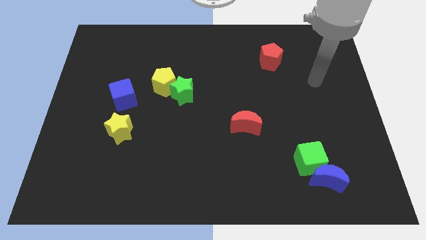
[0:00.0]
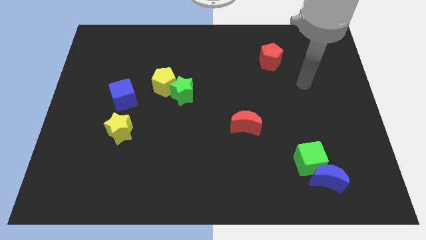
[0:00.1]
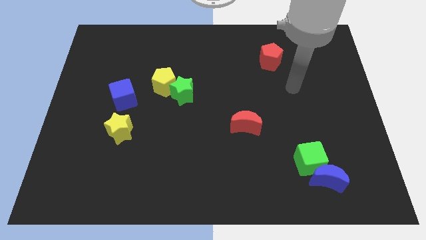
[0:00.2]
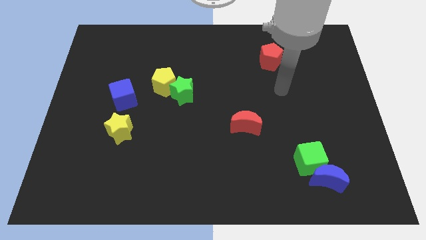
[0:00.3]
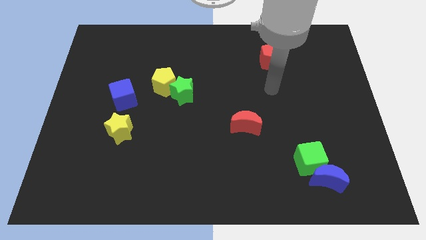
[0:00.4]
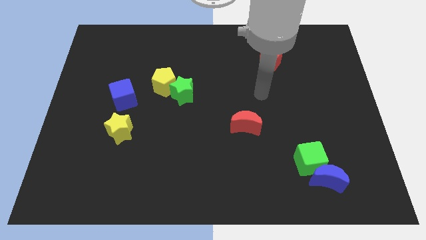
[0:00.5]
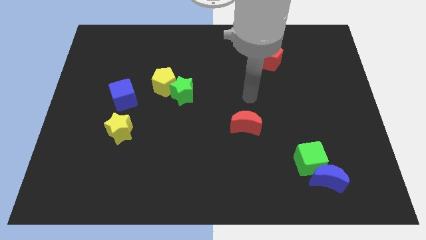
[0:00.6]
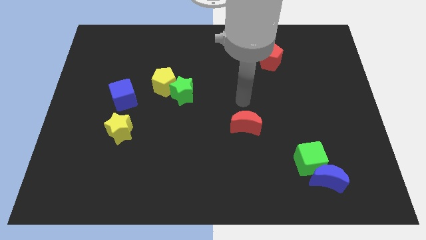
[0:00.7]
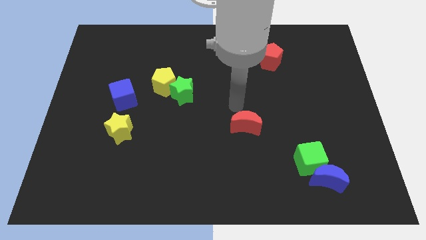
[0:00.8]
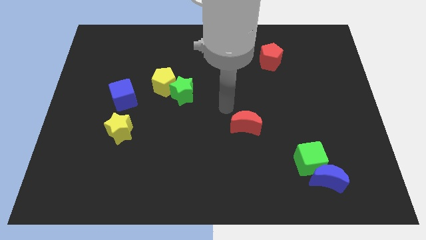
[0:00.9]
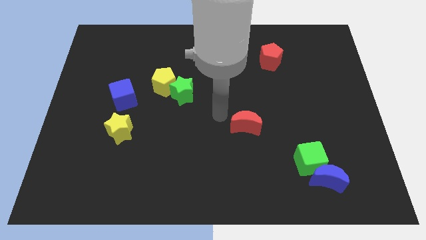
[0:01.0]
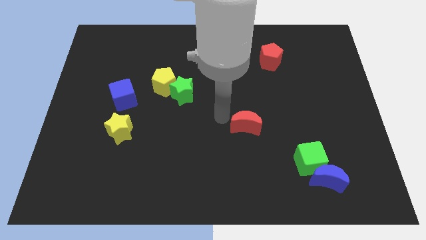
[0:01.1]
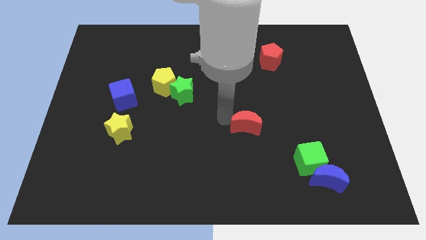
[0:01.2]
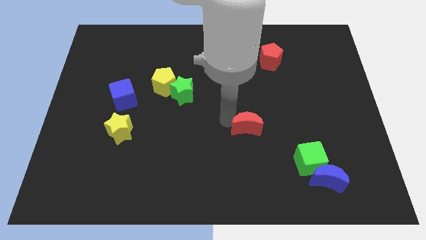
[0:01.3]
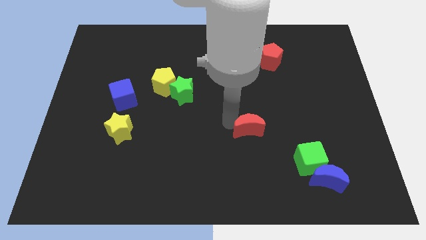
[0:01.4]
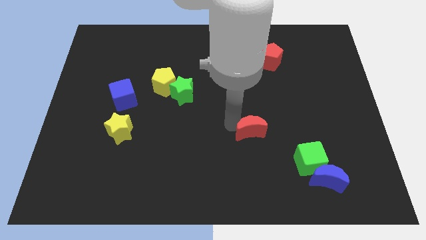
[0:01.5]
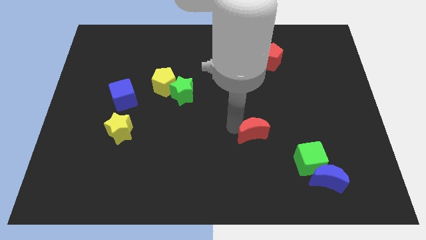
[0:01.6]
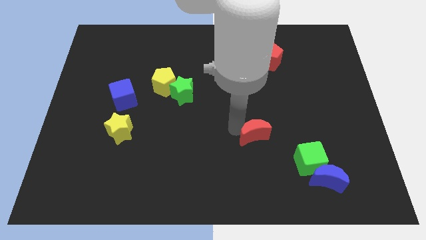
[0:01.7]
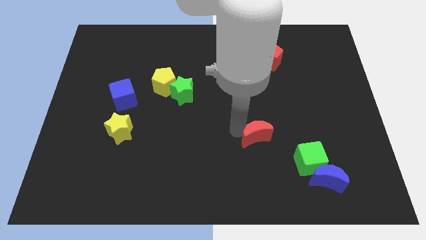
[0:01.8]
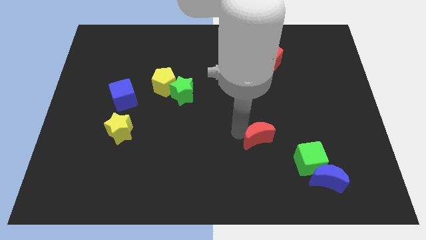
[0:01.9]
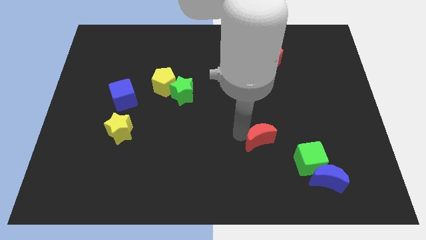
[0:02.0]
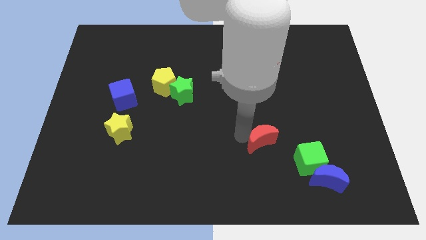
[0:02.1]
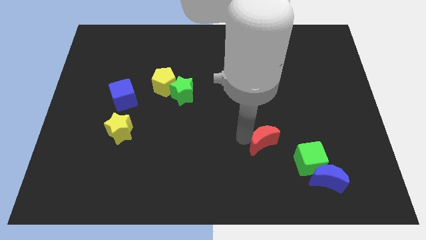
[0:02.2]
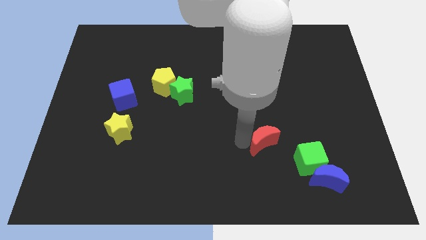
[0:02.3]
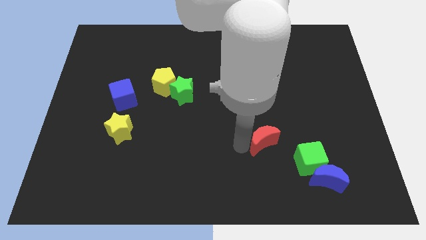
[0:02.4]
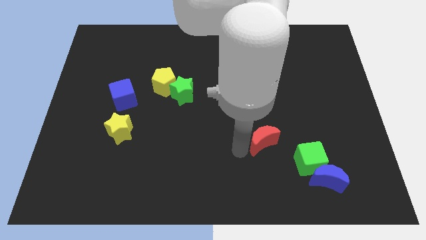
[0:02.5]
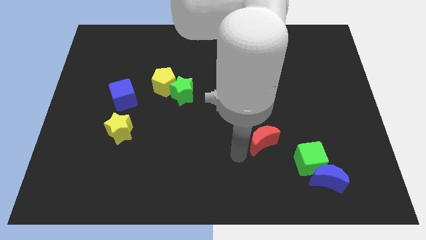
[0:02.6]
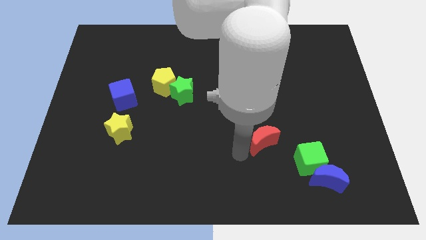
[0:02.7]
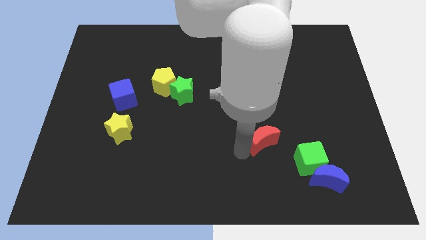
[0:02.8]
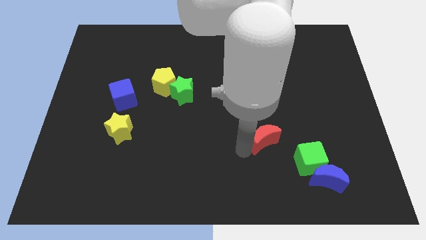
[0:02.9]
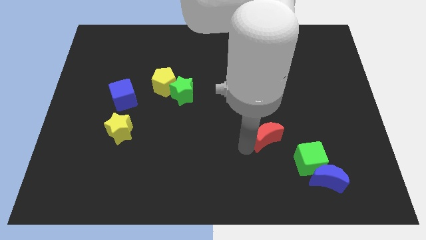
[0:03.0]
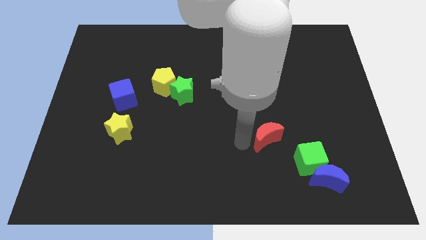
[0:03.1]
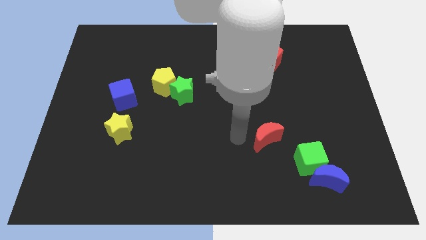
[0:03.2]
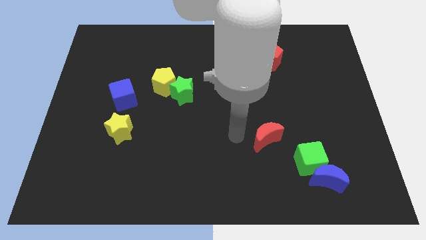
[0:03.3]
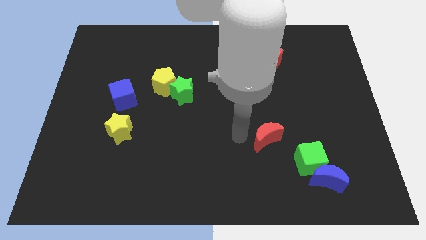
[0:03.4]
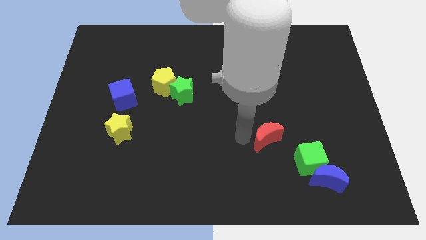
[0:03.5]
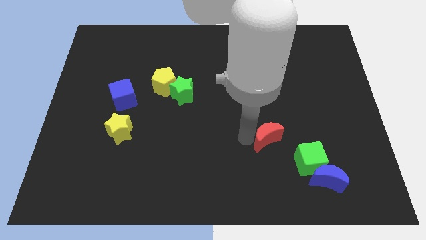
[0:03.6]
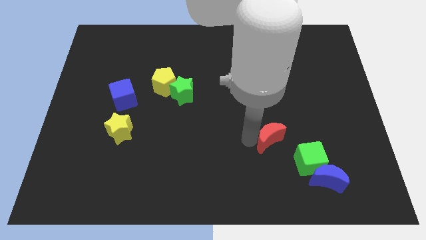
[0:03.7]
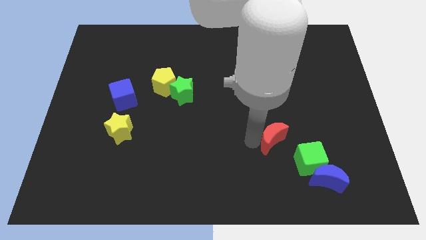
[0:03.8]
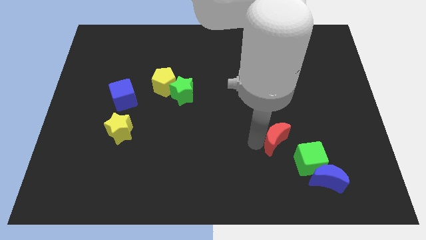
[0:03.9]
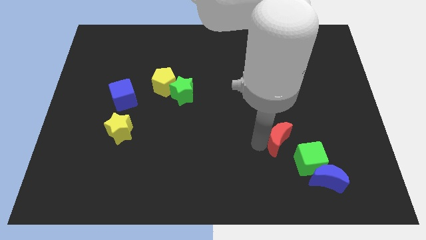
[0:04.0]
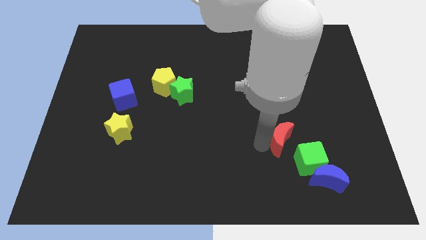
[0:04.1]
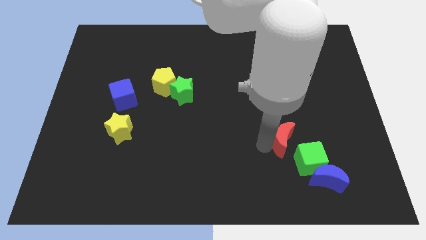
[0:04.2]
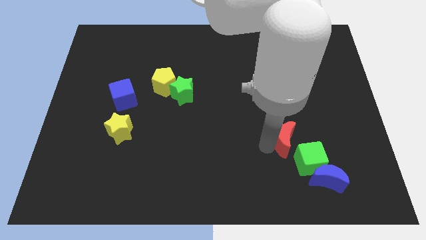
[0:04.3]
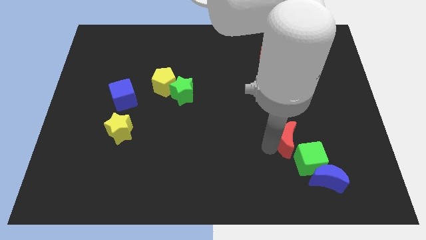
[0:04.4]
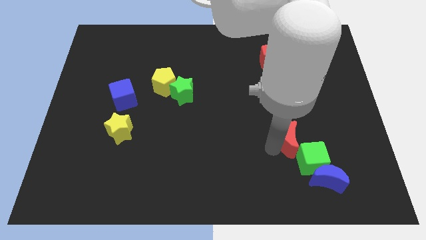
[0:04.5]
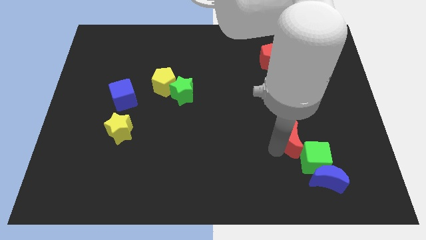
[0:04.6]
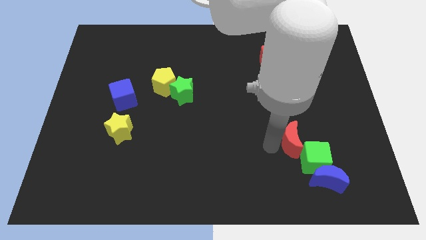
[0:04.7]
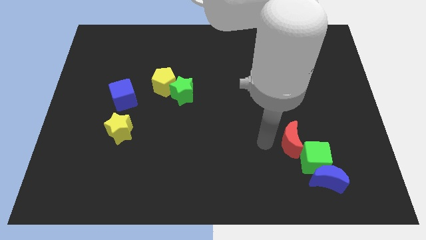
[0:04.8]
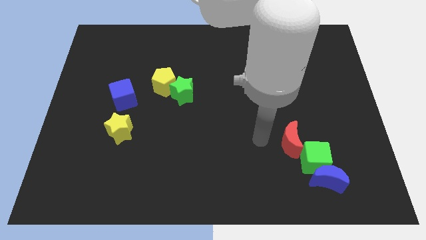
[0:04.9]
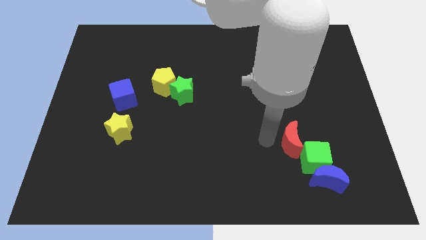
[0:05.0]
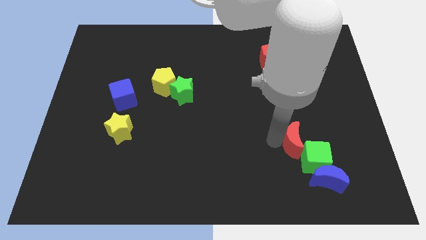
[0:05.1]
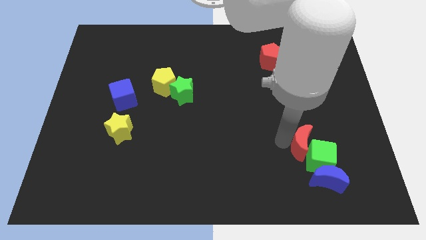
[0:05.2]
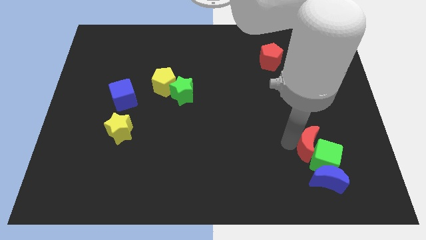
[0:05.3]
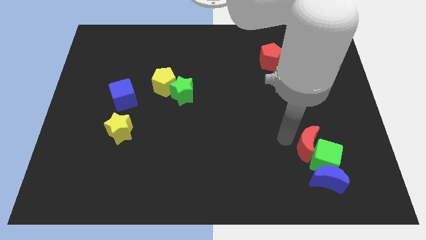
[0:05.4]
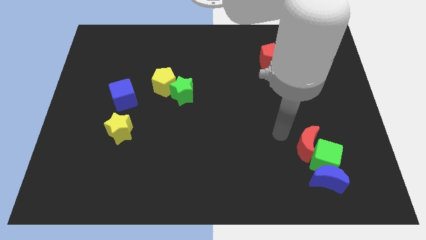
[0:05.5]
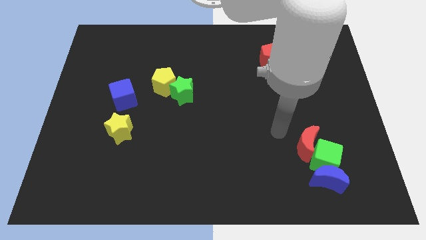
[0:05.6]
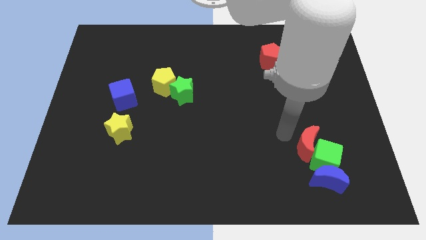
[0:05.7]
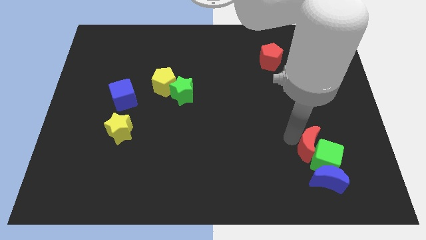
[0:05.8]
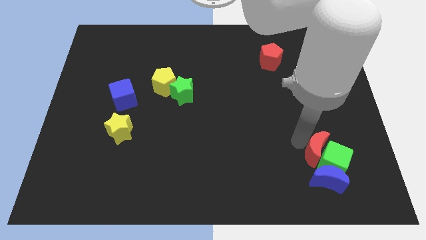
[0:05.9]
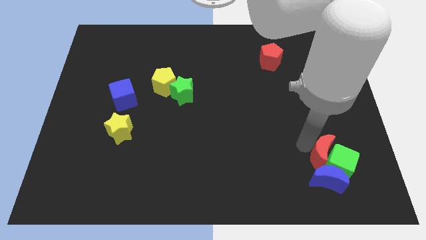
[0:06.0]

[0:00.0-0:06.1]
push the red moon to the blue moon

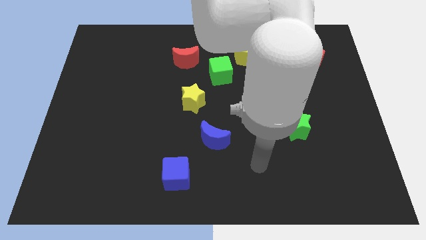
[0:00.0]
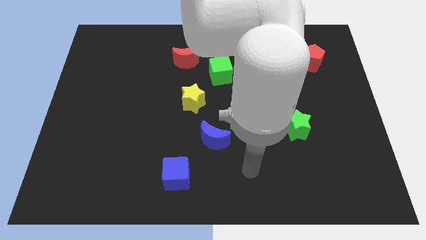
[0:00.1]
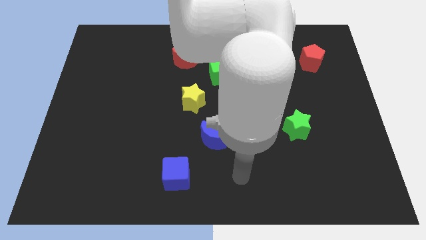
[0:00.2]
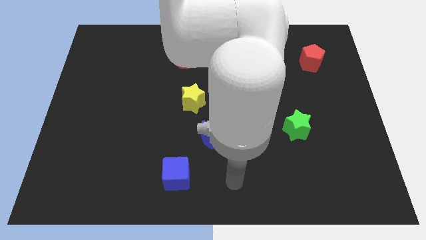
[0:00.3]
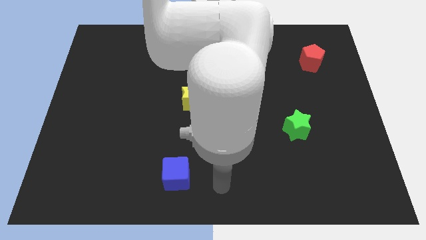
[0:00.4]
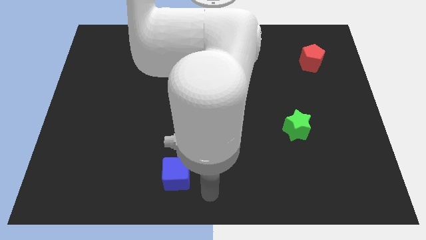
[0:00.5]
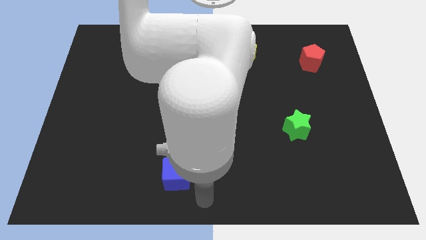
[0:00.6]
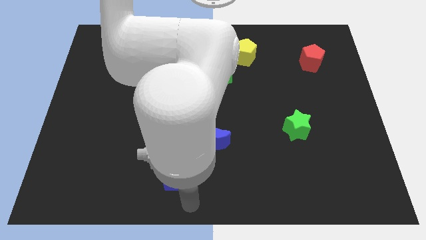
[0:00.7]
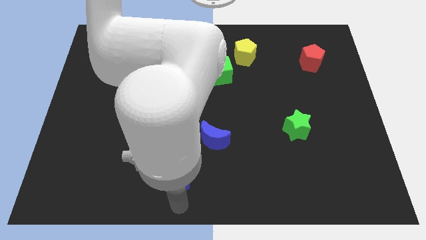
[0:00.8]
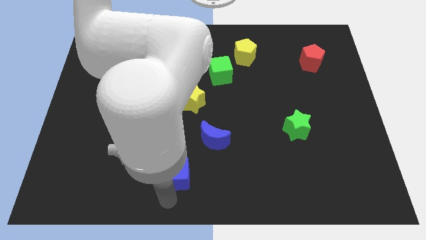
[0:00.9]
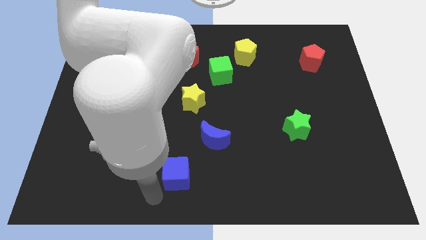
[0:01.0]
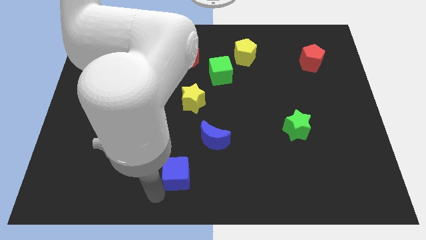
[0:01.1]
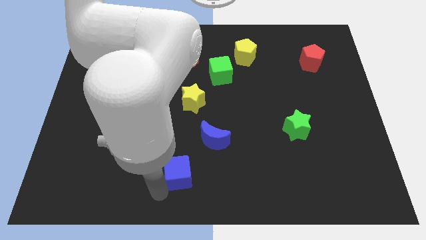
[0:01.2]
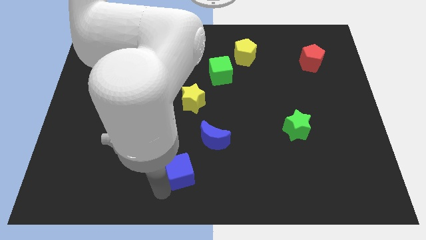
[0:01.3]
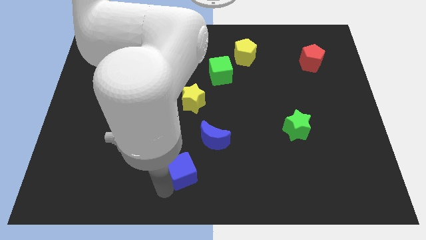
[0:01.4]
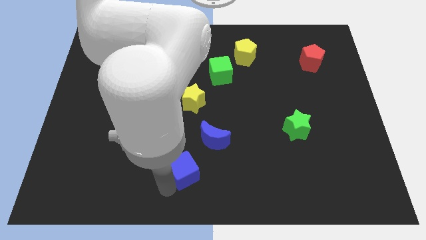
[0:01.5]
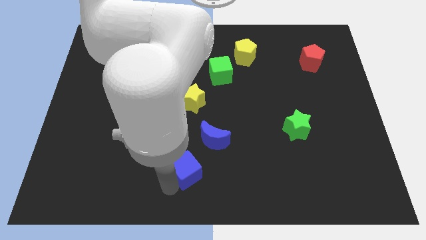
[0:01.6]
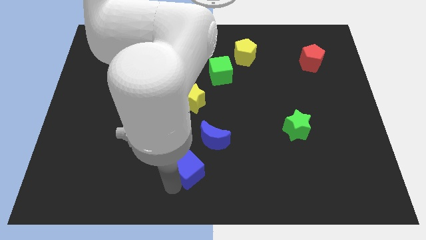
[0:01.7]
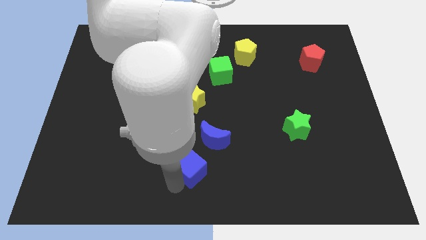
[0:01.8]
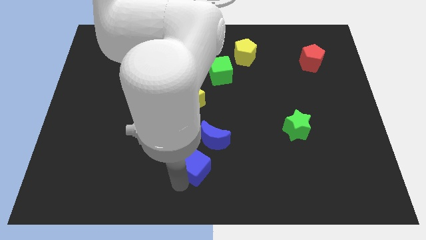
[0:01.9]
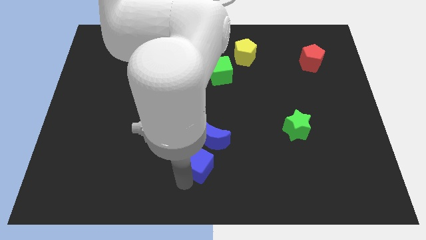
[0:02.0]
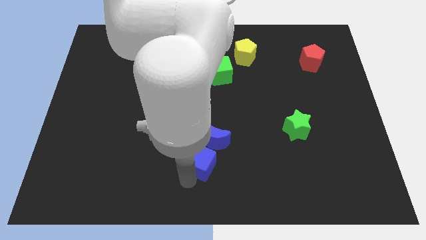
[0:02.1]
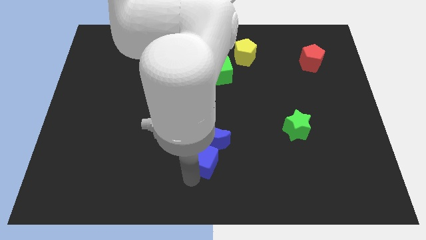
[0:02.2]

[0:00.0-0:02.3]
push the blue cube towards the blue moon
